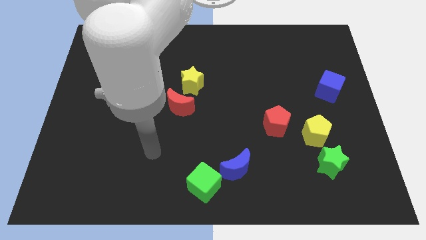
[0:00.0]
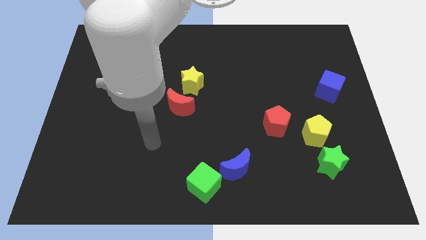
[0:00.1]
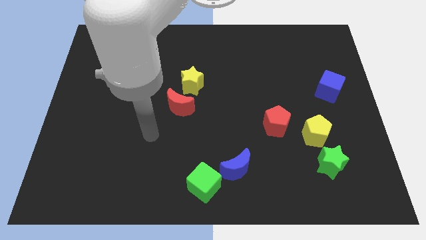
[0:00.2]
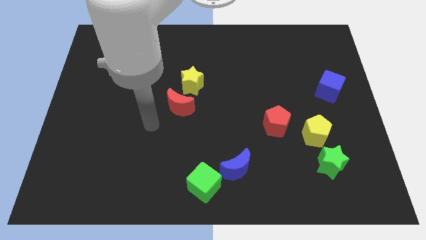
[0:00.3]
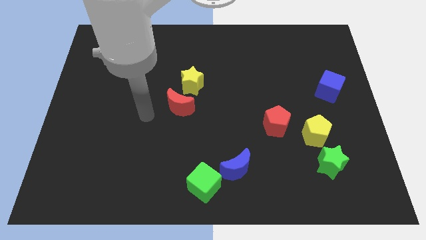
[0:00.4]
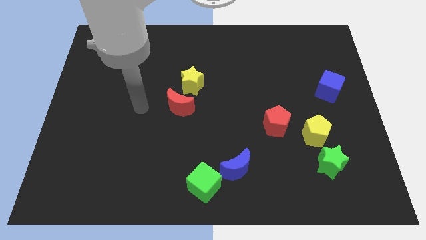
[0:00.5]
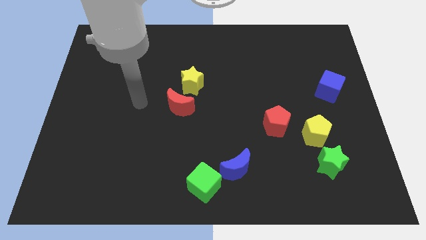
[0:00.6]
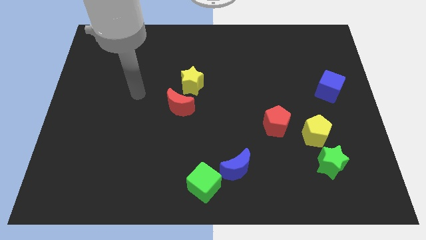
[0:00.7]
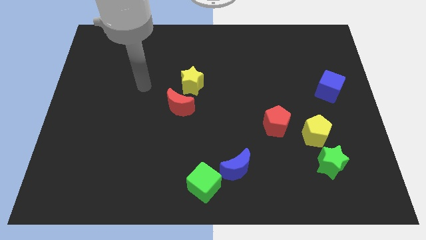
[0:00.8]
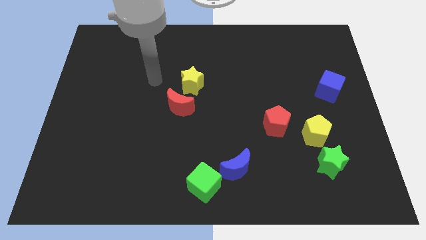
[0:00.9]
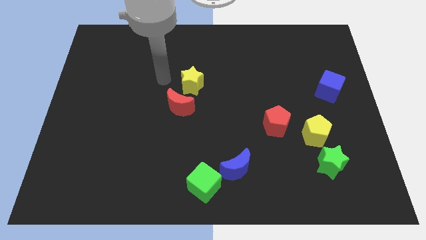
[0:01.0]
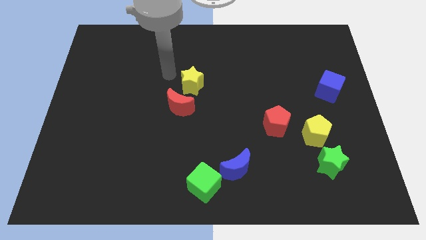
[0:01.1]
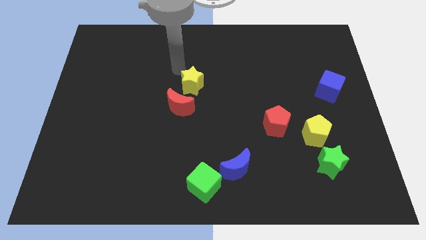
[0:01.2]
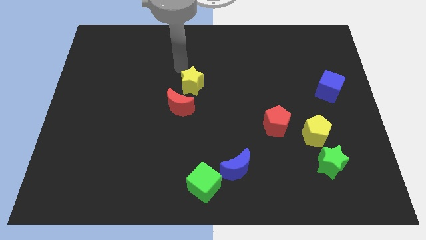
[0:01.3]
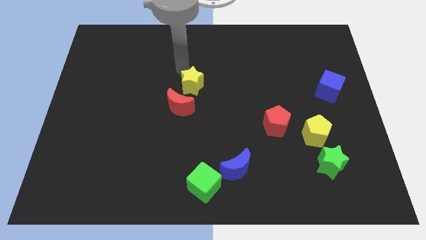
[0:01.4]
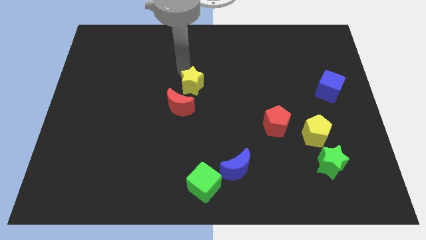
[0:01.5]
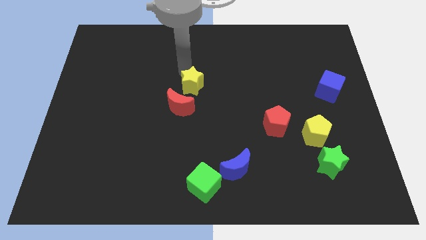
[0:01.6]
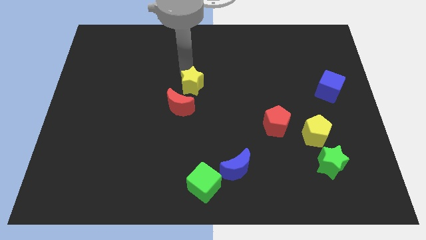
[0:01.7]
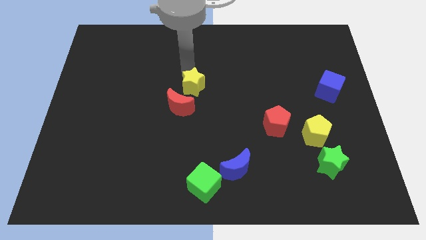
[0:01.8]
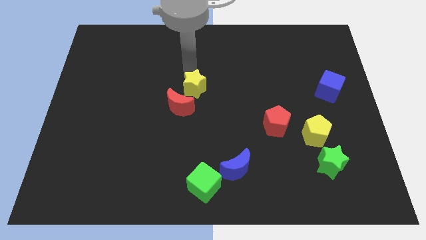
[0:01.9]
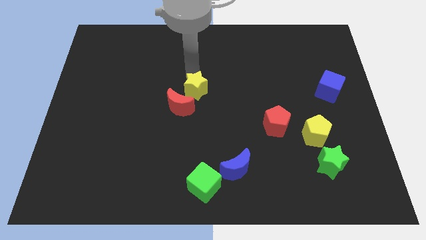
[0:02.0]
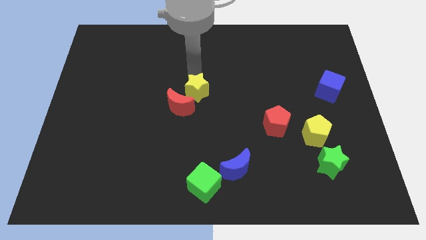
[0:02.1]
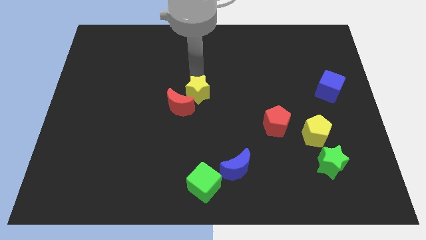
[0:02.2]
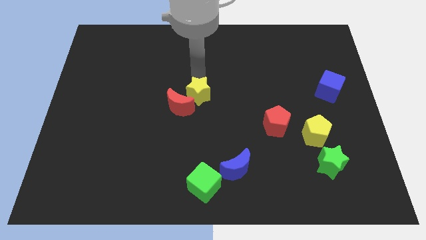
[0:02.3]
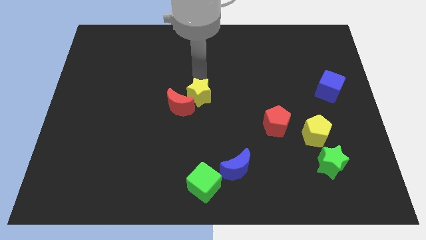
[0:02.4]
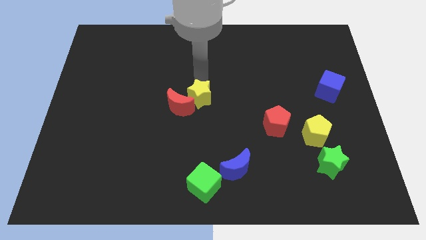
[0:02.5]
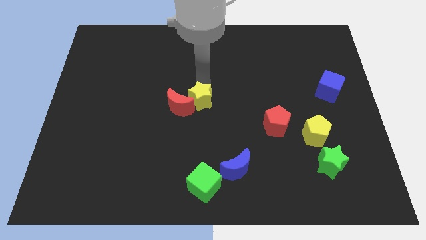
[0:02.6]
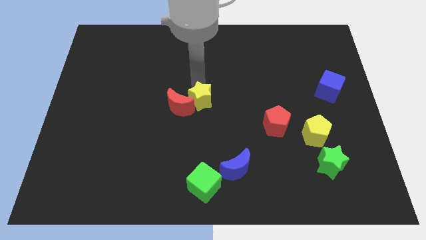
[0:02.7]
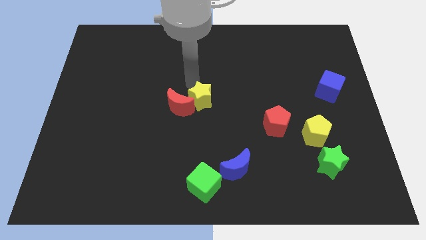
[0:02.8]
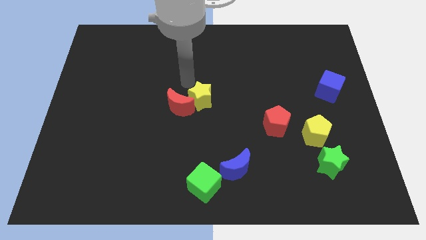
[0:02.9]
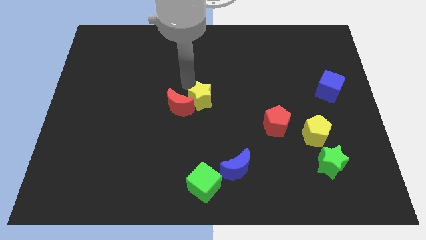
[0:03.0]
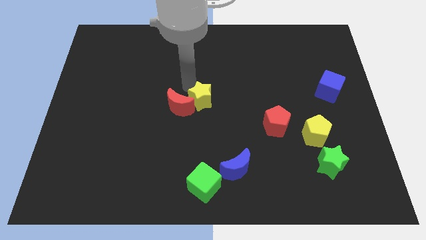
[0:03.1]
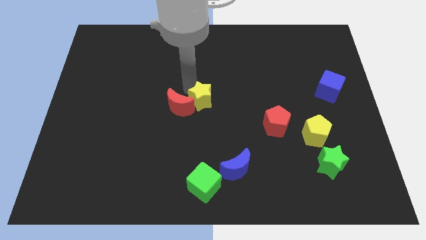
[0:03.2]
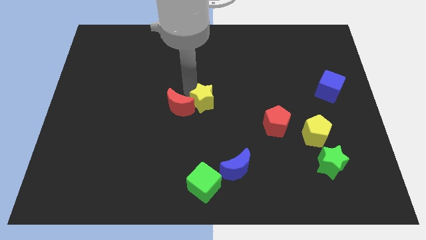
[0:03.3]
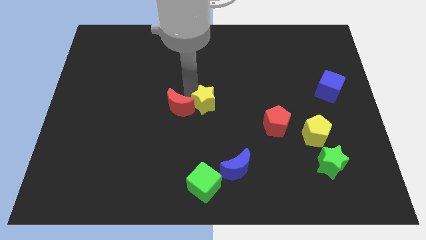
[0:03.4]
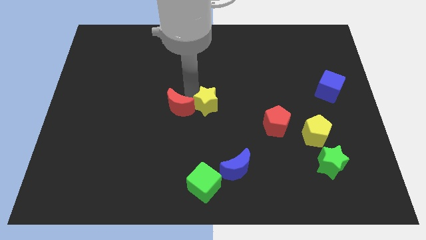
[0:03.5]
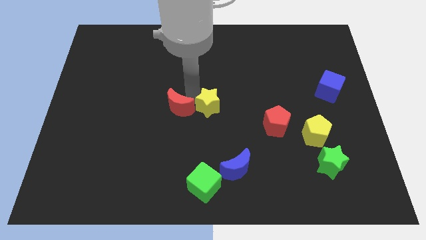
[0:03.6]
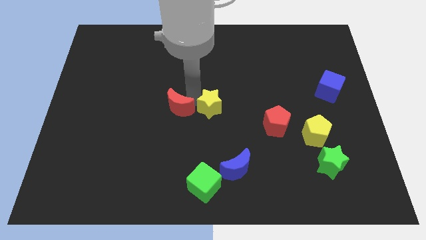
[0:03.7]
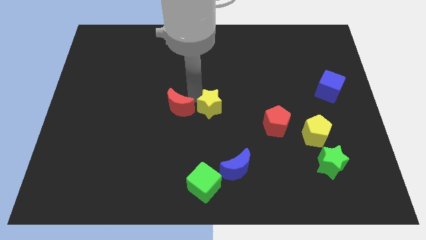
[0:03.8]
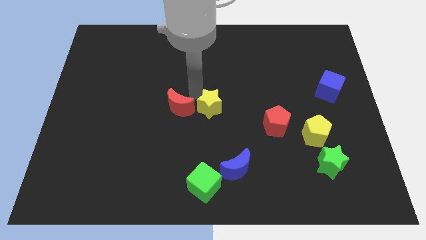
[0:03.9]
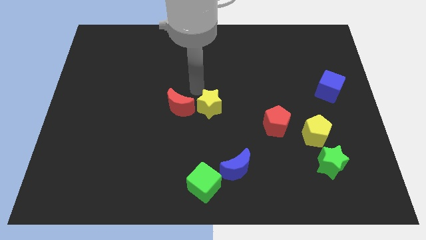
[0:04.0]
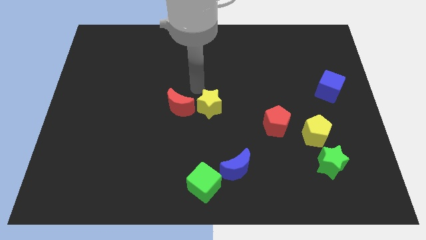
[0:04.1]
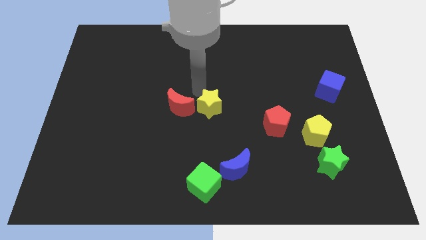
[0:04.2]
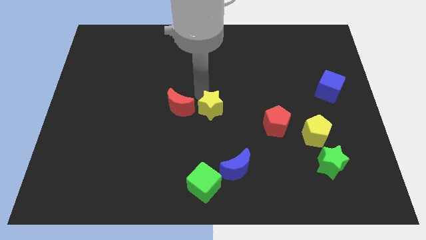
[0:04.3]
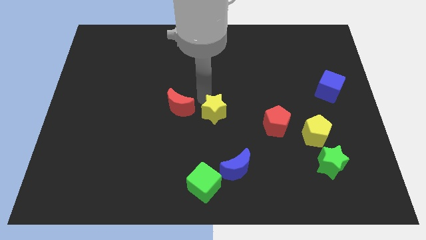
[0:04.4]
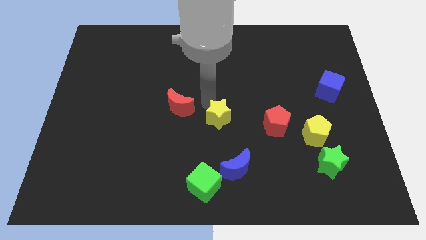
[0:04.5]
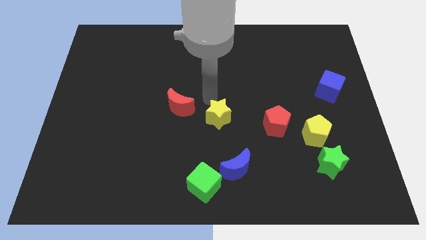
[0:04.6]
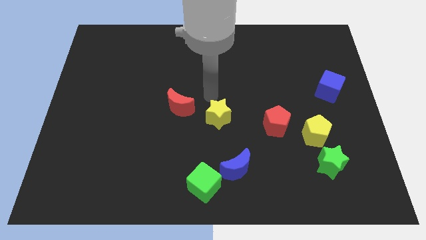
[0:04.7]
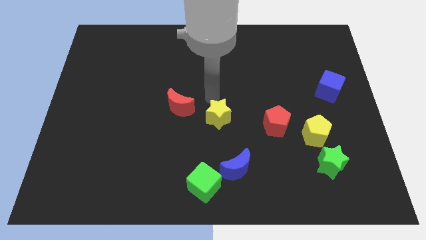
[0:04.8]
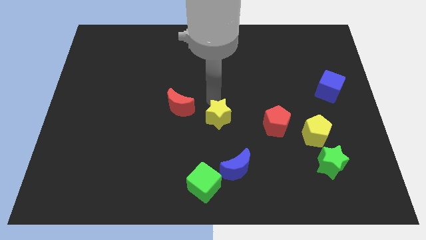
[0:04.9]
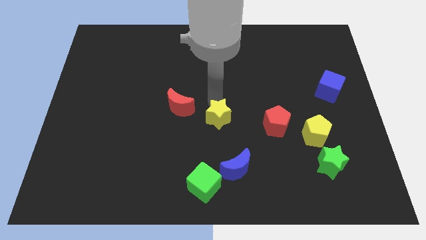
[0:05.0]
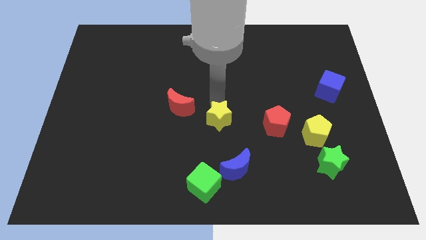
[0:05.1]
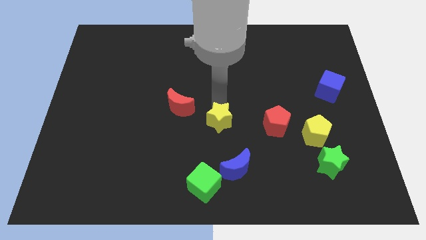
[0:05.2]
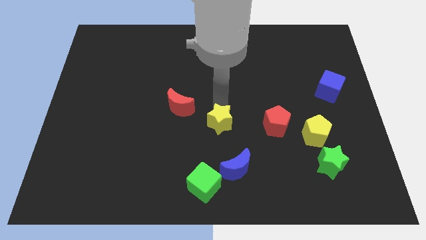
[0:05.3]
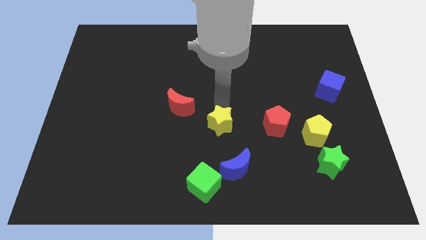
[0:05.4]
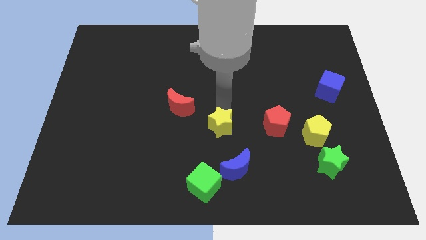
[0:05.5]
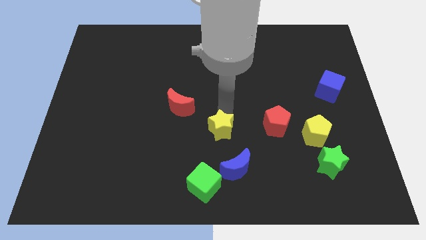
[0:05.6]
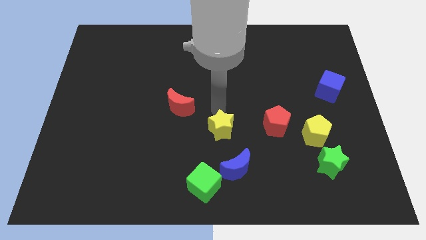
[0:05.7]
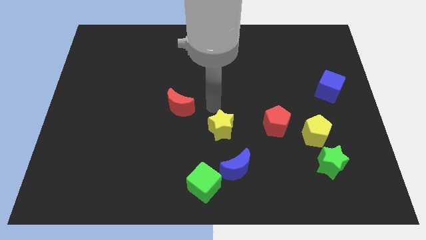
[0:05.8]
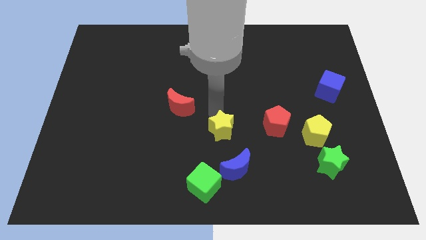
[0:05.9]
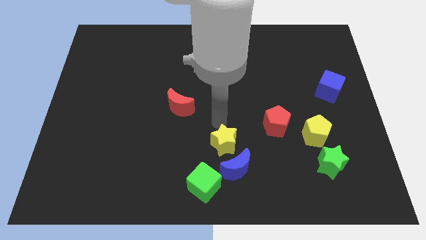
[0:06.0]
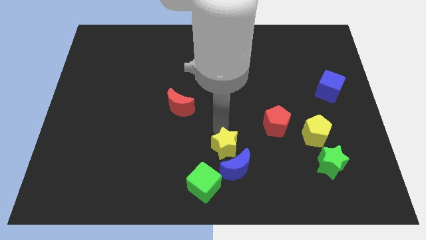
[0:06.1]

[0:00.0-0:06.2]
move the yellow star next to the blue moon

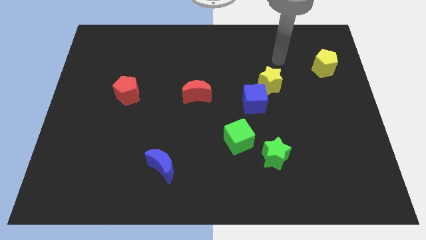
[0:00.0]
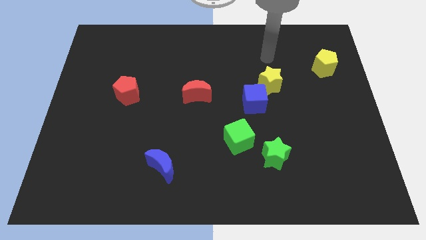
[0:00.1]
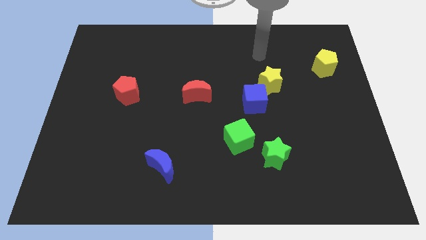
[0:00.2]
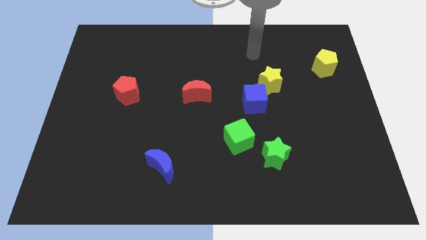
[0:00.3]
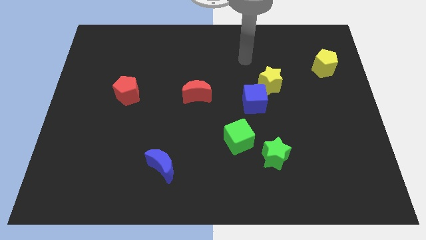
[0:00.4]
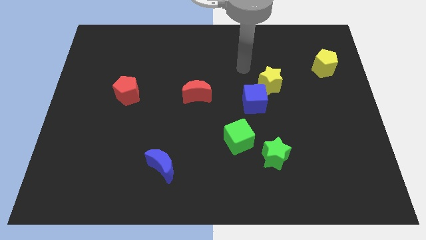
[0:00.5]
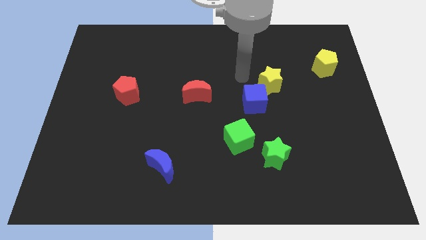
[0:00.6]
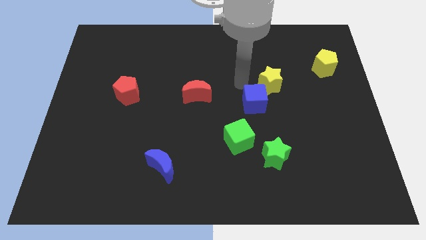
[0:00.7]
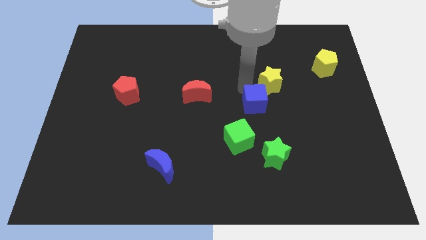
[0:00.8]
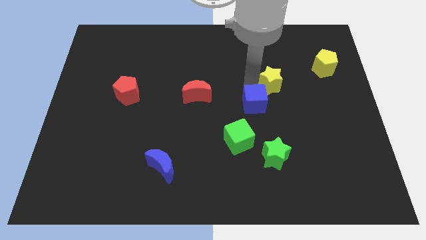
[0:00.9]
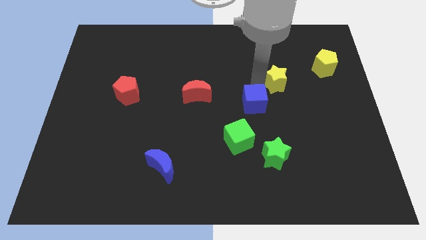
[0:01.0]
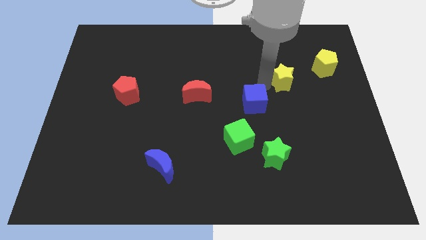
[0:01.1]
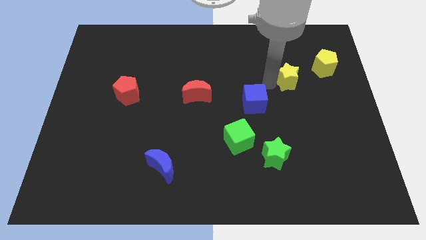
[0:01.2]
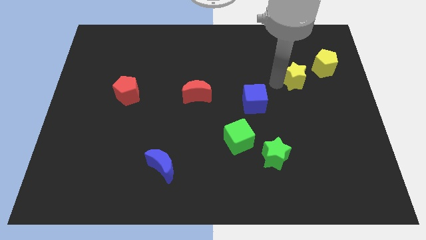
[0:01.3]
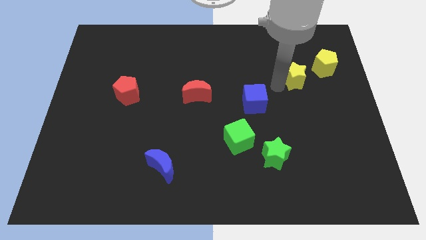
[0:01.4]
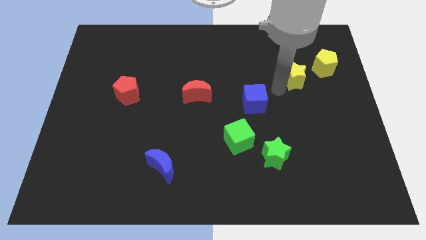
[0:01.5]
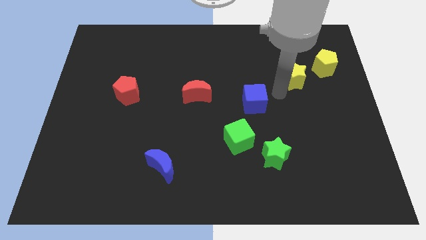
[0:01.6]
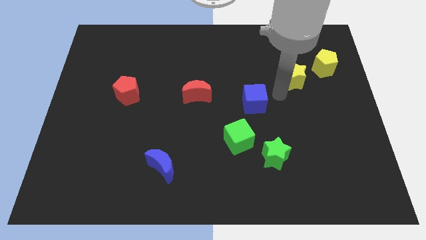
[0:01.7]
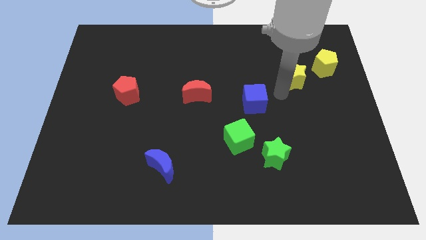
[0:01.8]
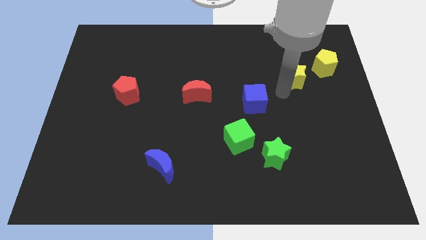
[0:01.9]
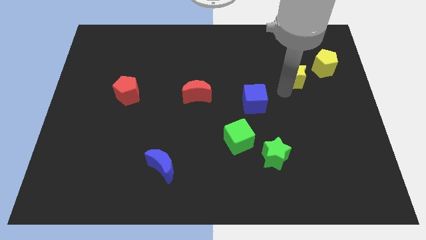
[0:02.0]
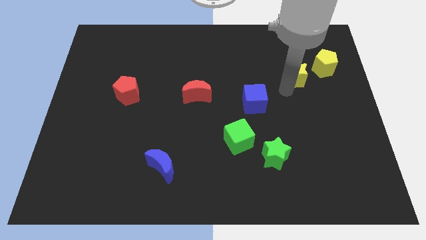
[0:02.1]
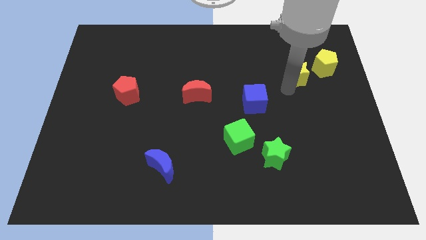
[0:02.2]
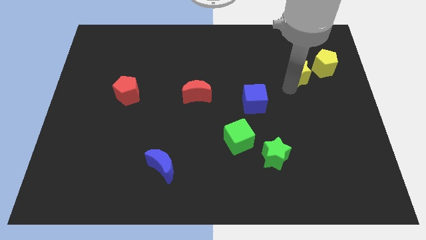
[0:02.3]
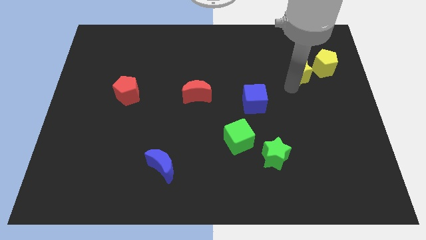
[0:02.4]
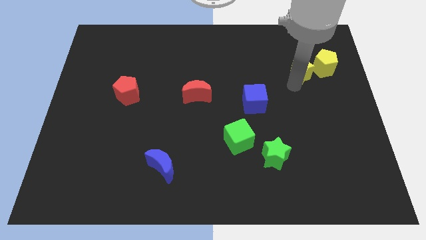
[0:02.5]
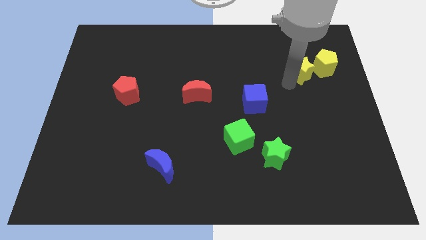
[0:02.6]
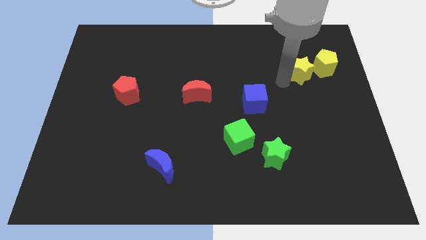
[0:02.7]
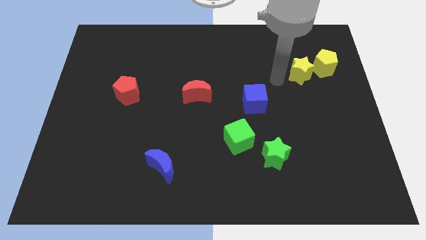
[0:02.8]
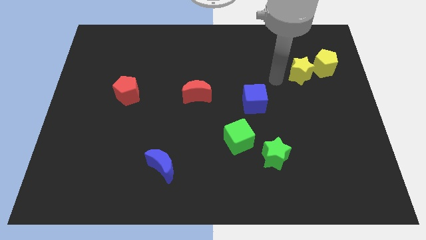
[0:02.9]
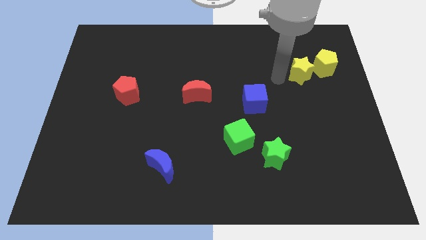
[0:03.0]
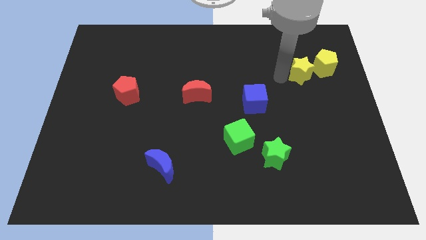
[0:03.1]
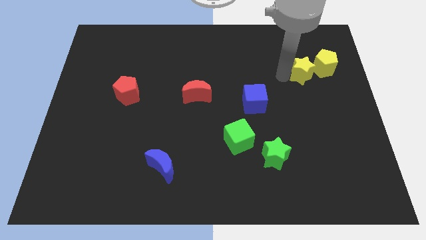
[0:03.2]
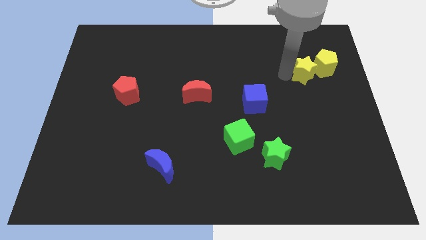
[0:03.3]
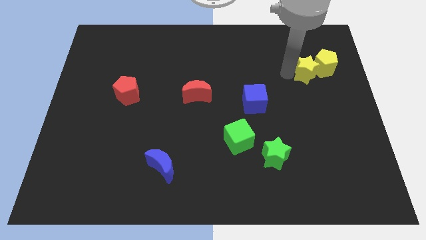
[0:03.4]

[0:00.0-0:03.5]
push the yellow star towards the yellow pentagon
